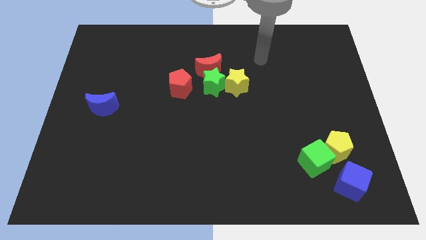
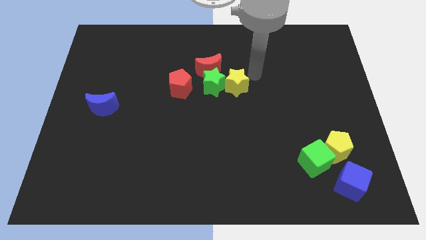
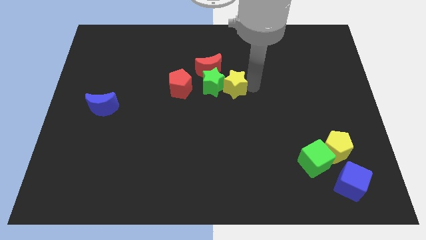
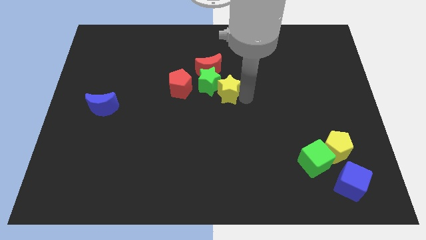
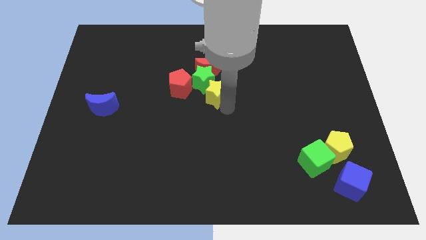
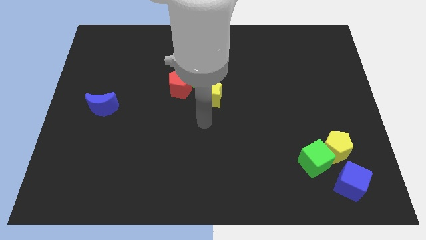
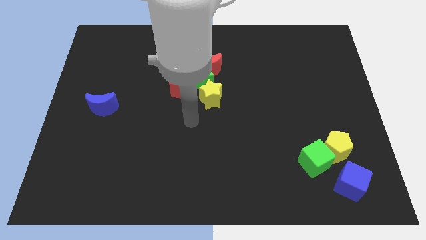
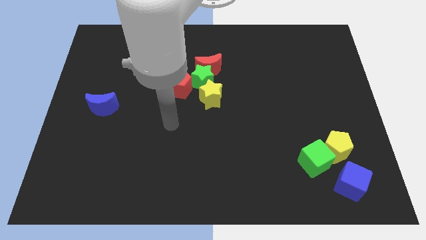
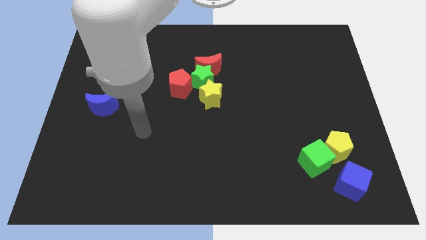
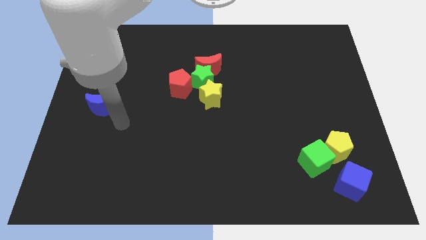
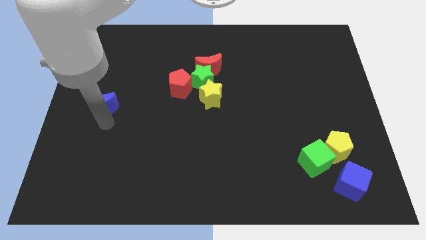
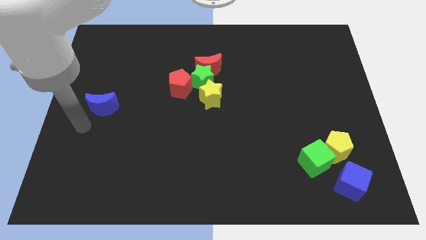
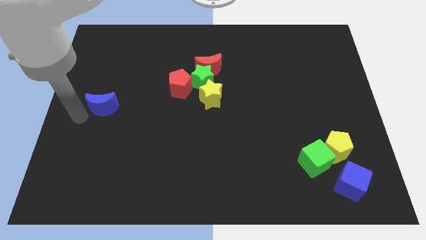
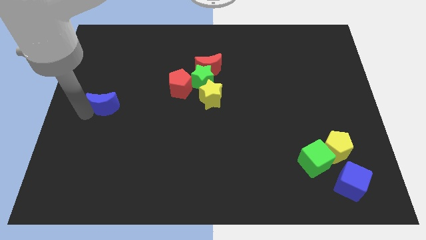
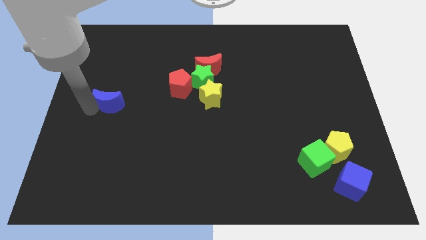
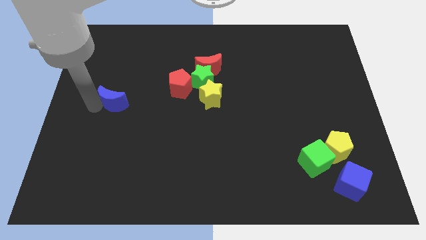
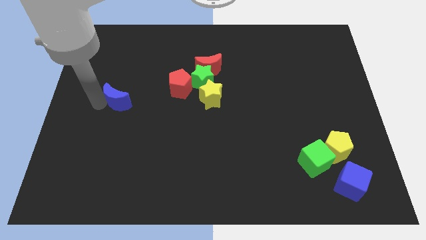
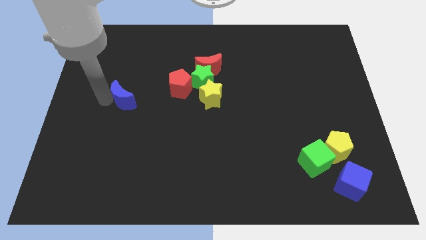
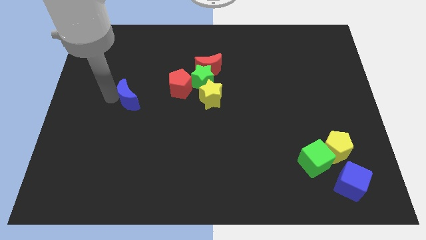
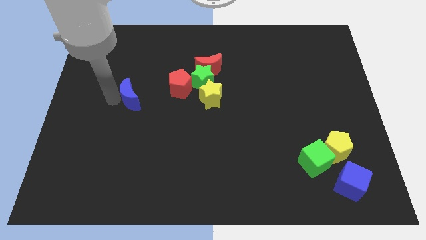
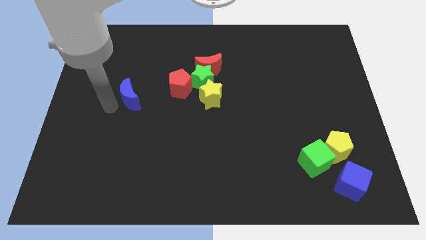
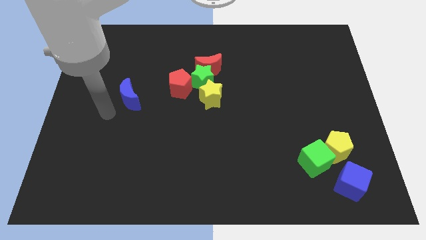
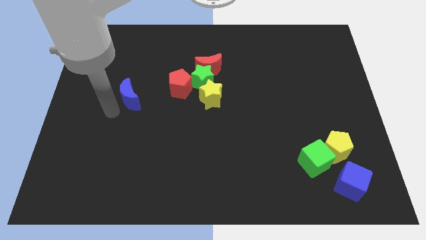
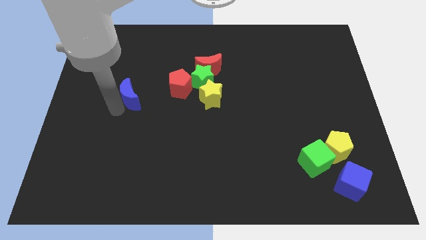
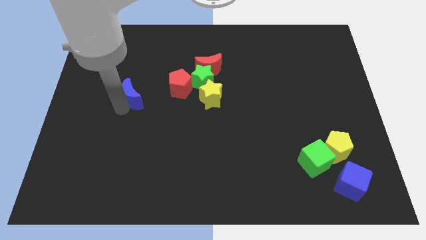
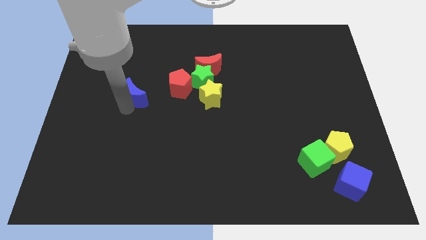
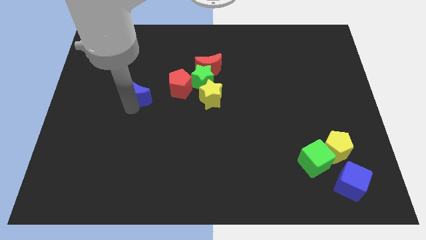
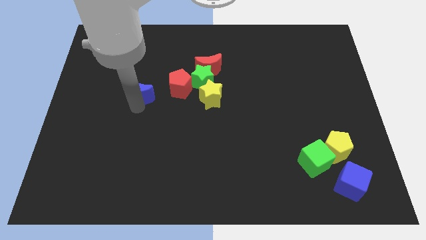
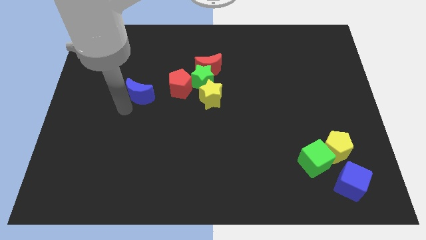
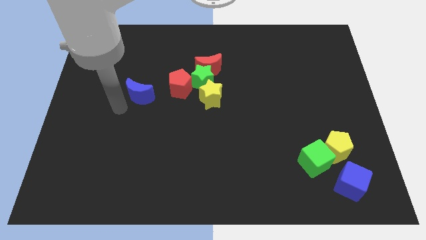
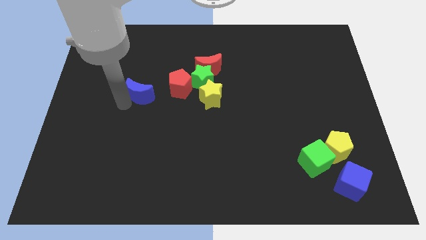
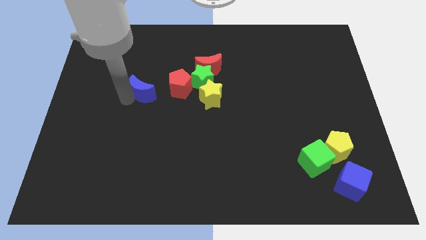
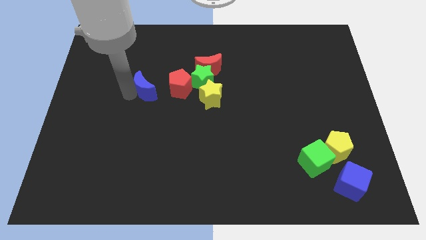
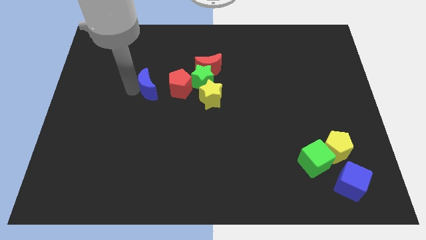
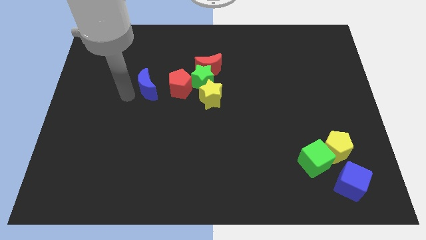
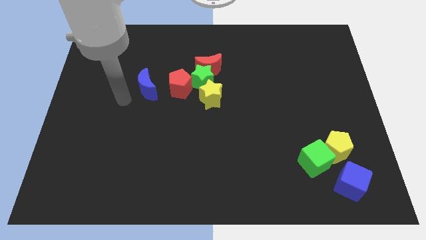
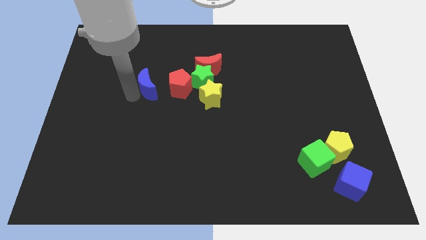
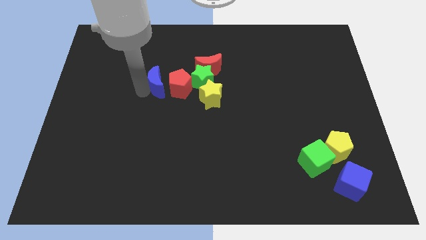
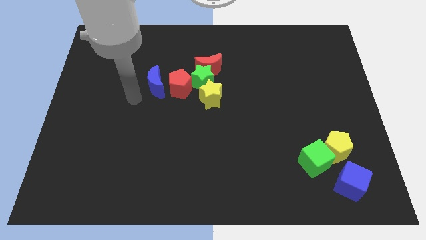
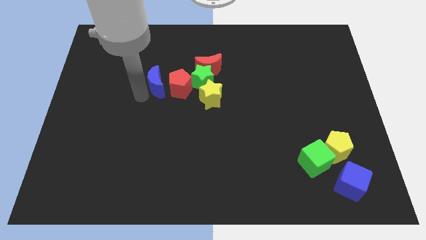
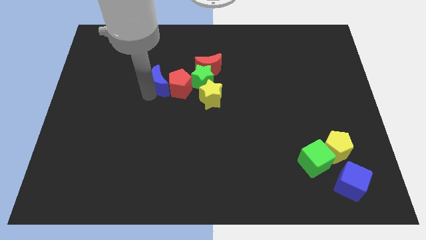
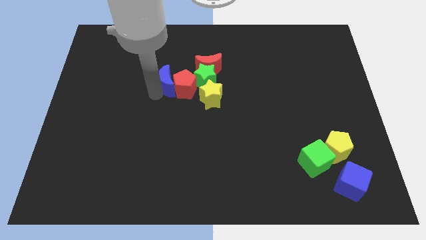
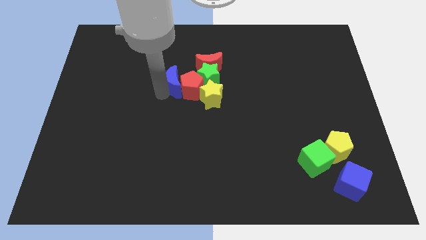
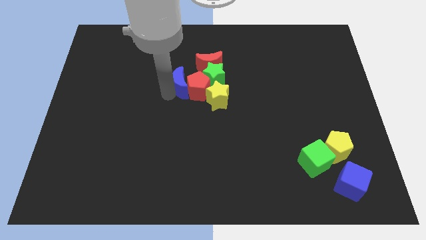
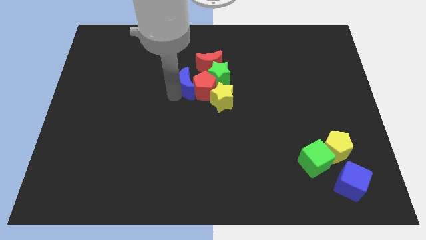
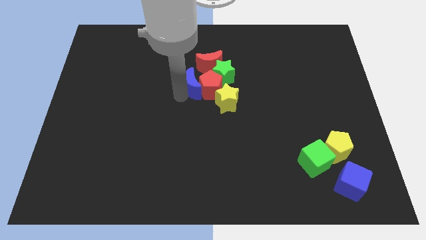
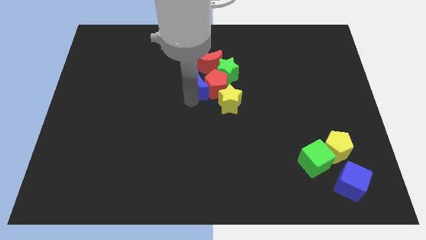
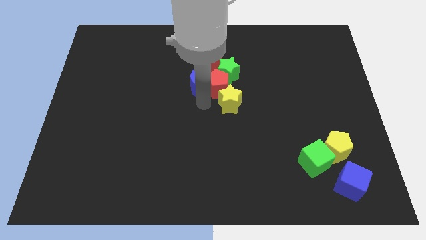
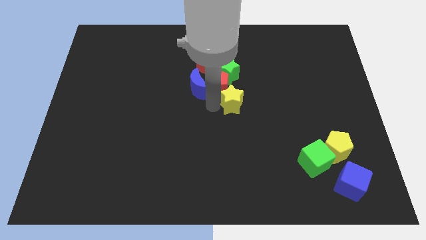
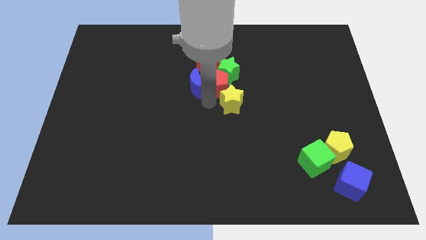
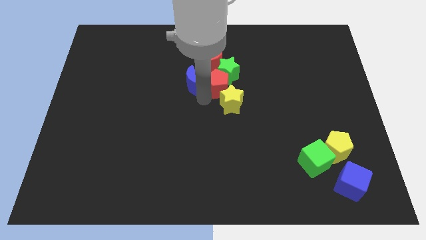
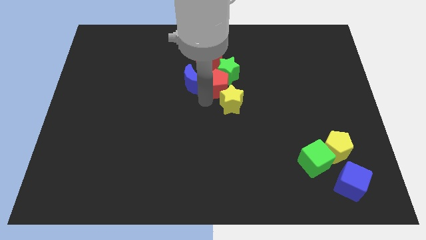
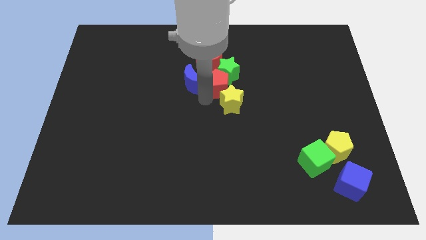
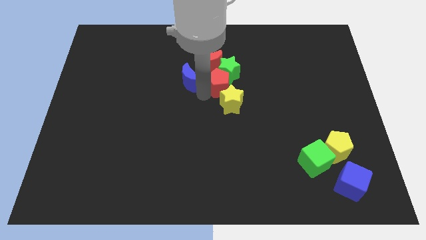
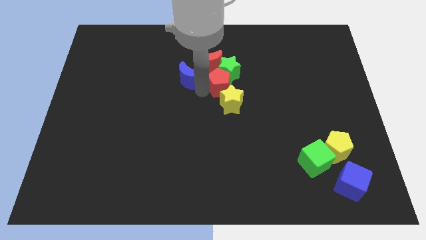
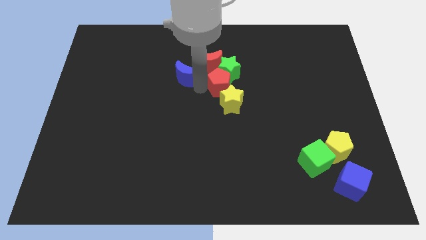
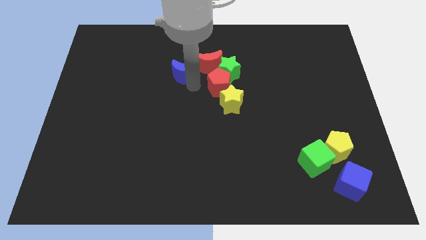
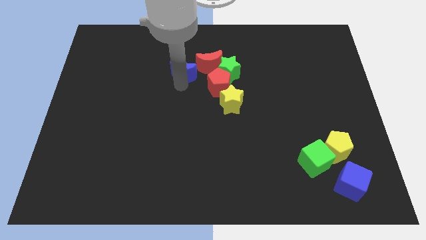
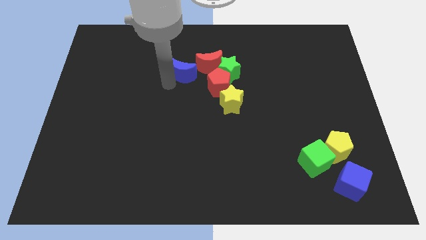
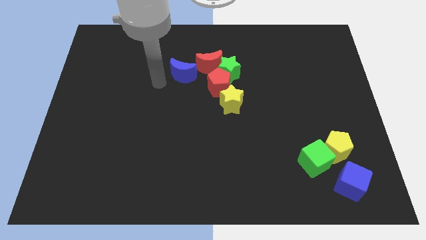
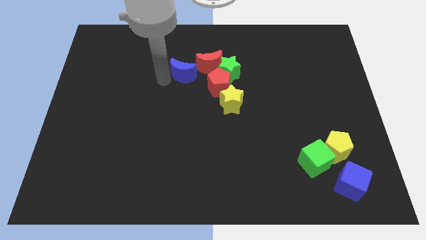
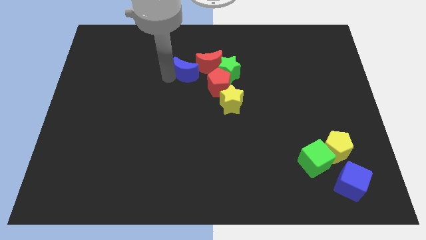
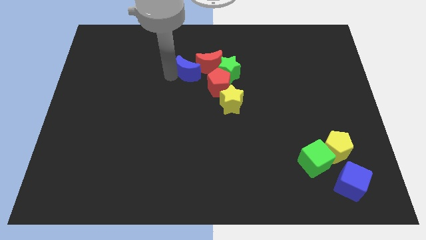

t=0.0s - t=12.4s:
push the blue moon towards the red moon

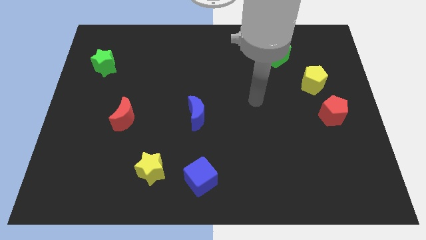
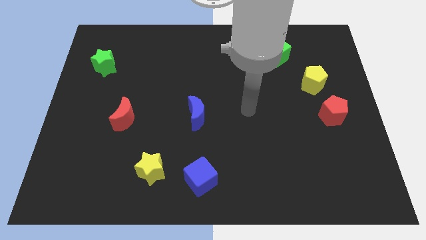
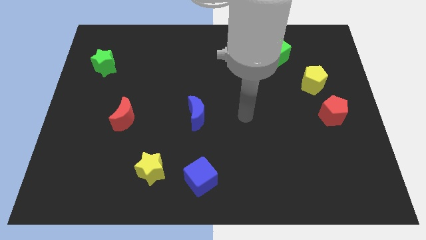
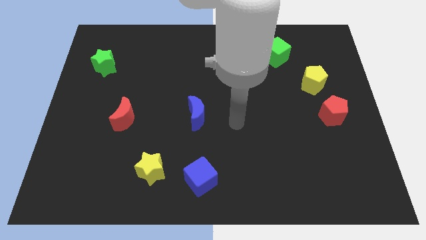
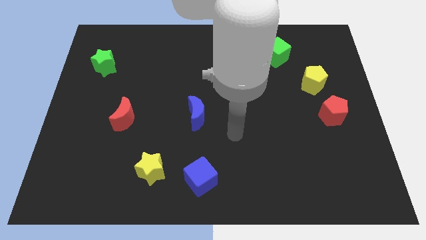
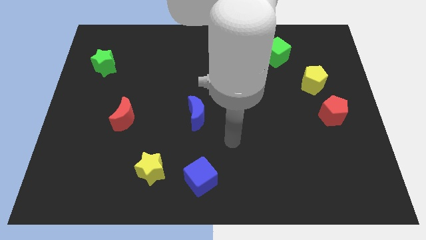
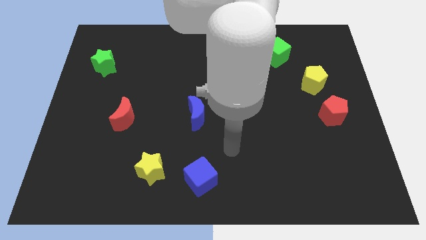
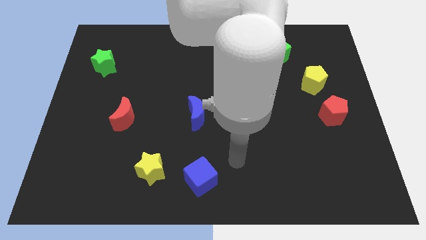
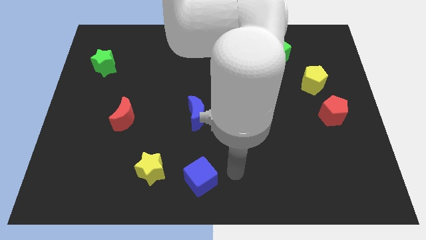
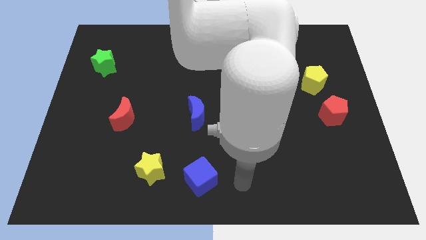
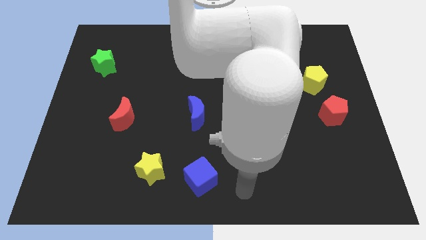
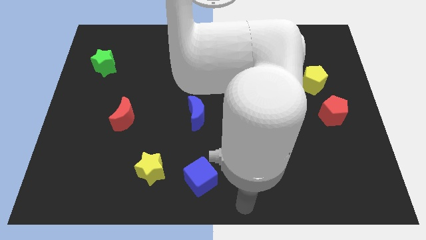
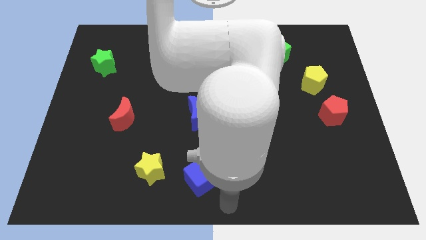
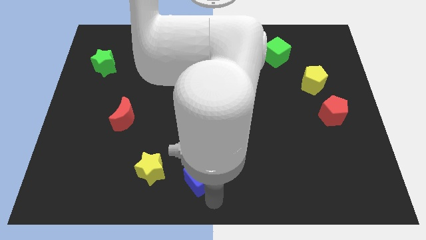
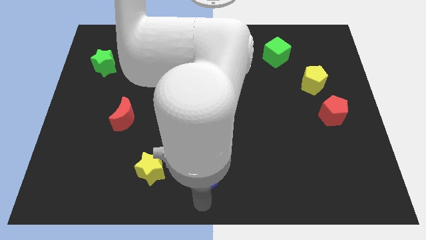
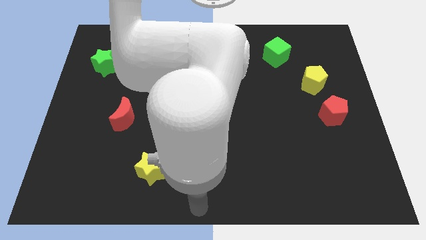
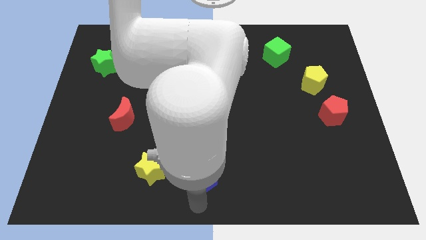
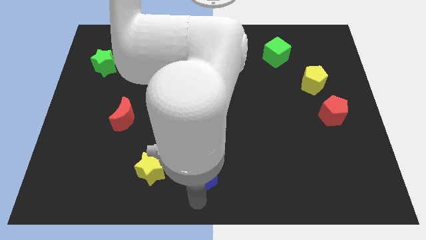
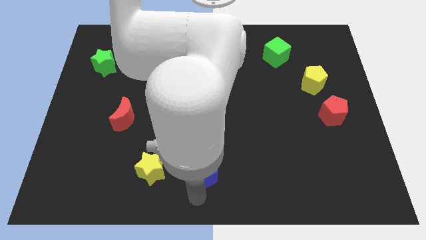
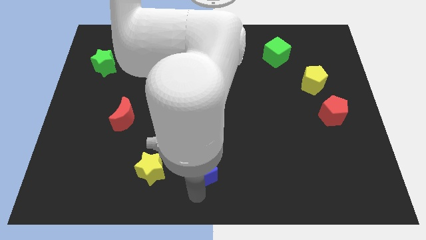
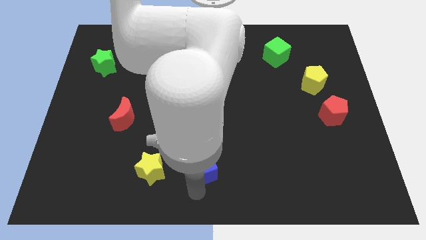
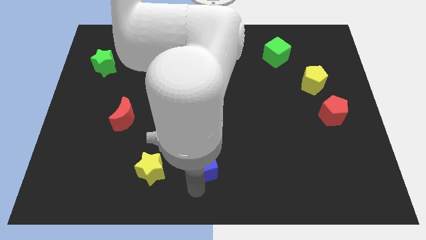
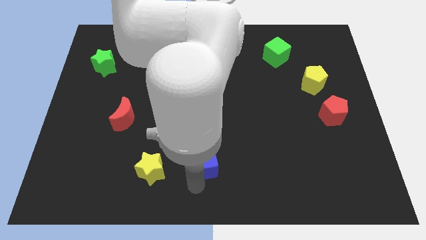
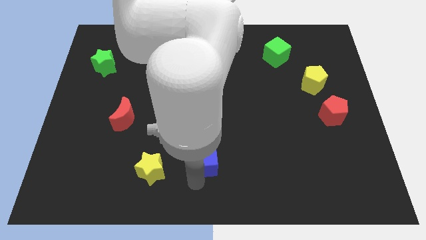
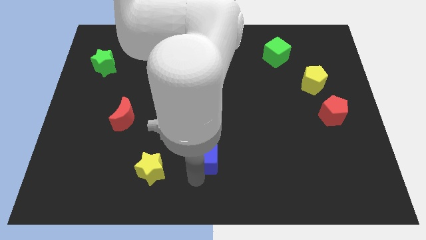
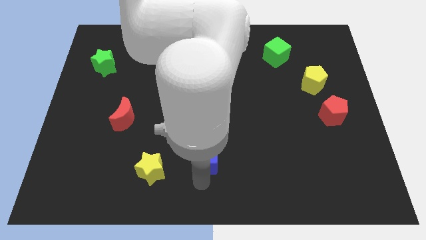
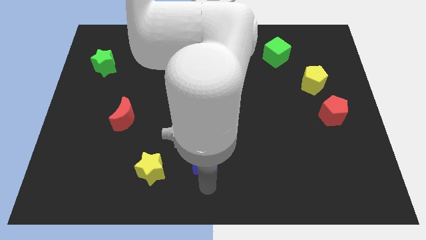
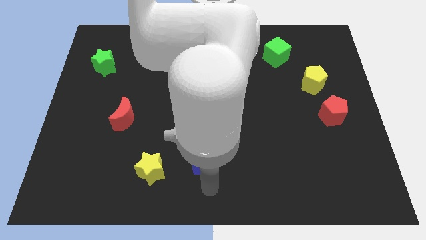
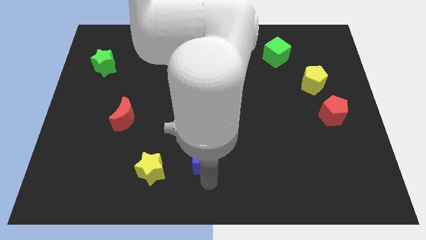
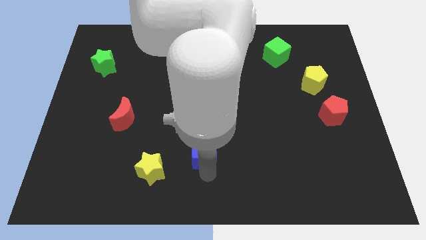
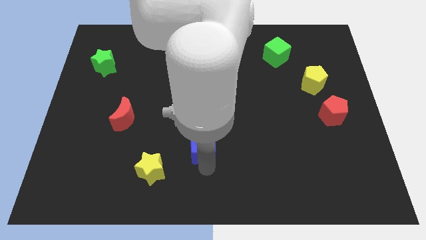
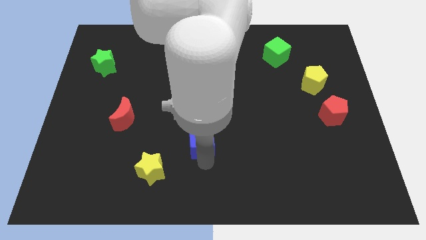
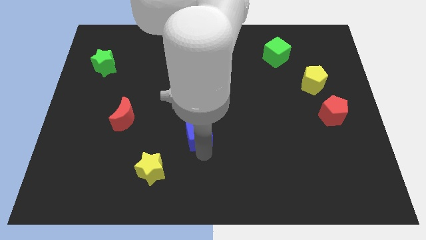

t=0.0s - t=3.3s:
put the blue cube to the blue moon
